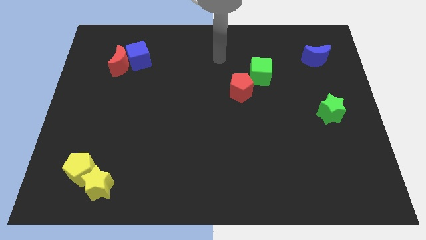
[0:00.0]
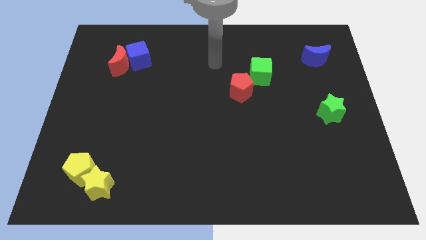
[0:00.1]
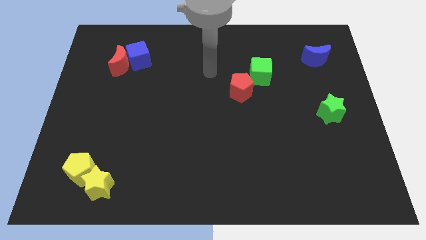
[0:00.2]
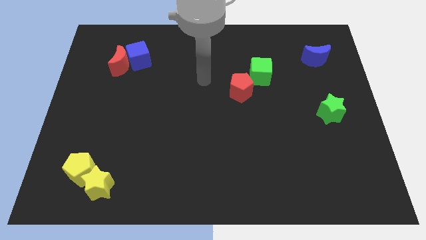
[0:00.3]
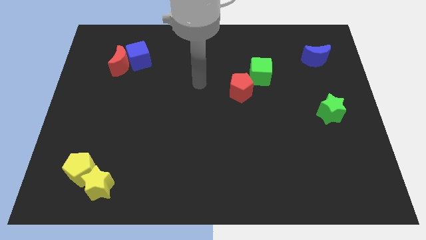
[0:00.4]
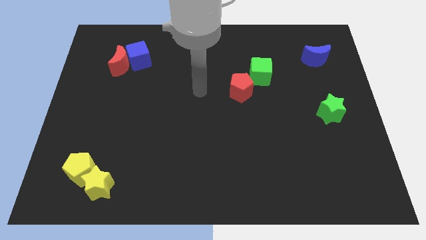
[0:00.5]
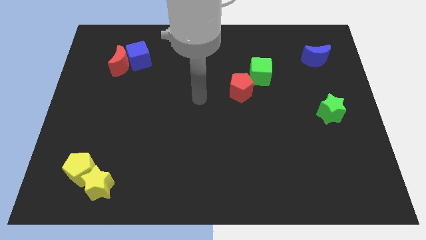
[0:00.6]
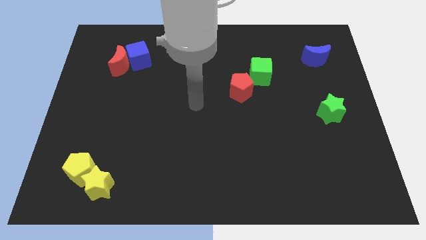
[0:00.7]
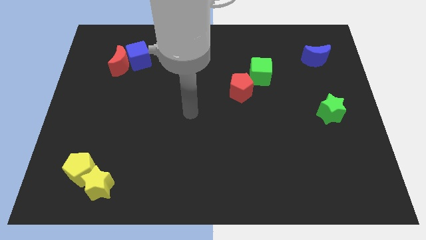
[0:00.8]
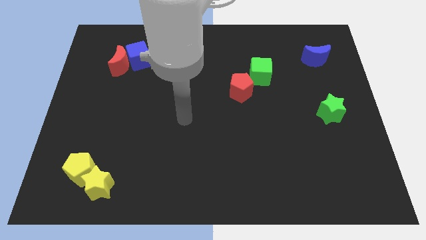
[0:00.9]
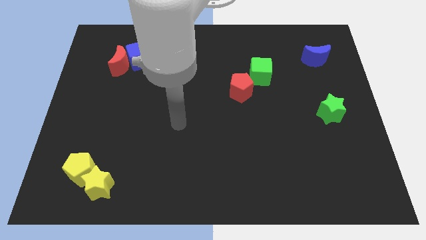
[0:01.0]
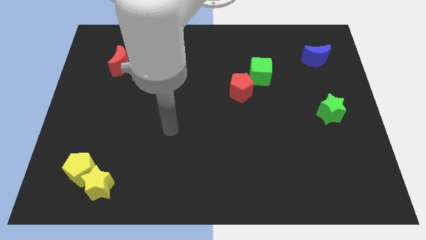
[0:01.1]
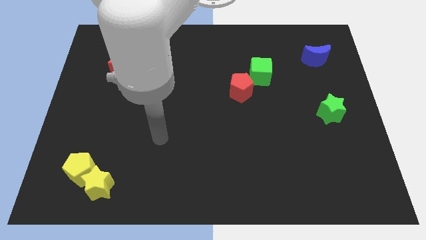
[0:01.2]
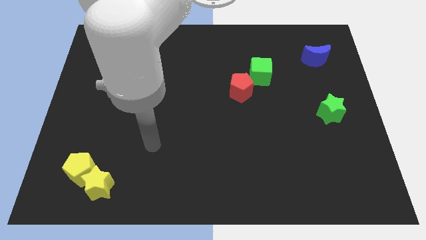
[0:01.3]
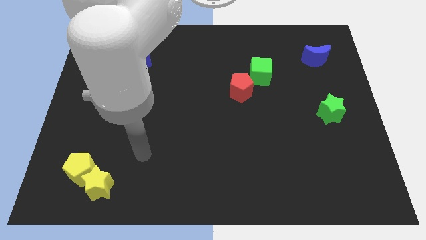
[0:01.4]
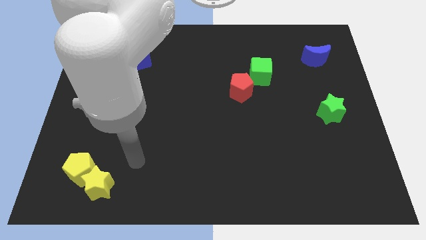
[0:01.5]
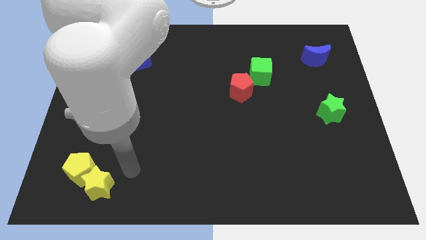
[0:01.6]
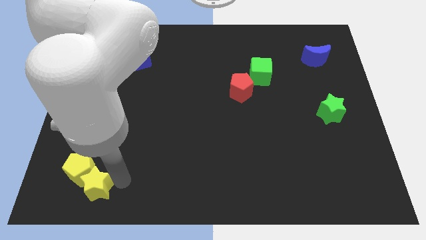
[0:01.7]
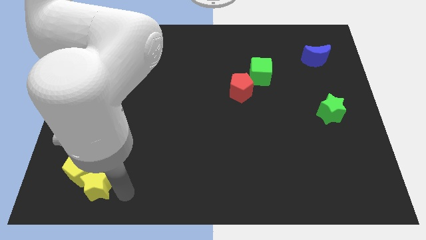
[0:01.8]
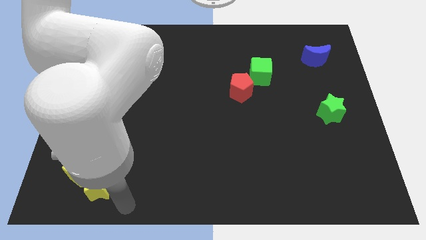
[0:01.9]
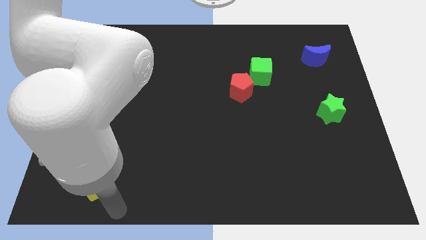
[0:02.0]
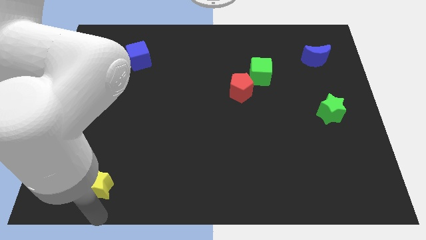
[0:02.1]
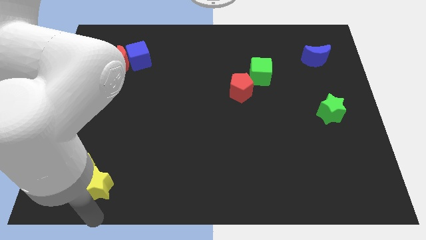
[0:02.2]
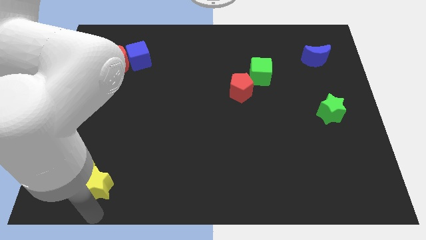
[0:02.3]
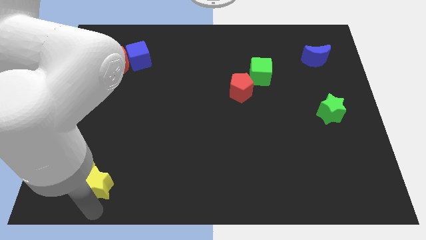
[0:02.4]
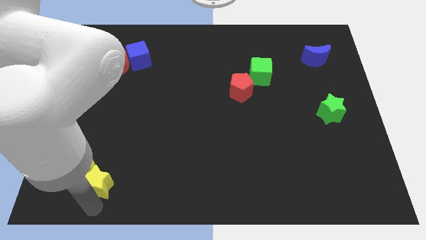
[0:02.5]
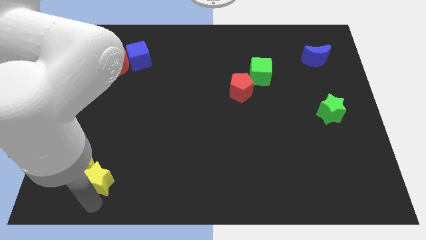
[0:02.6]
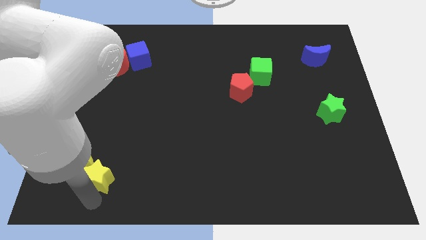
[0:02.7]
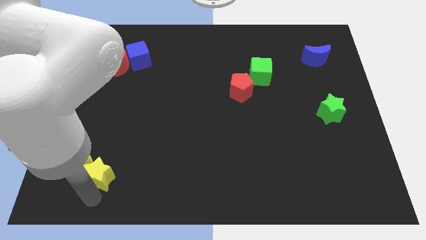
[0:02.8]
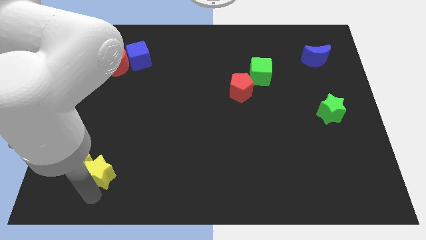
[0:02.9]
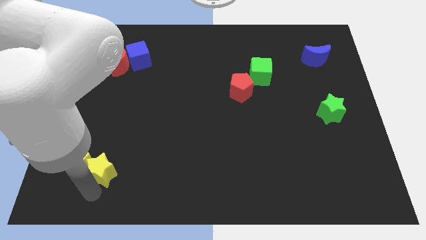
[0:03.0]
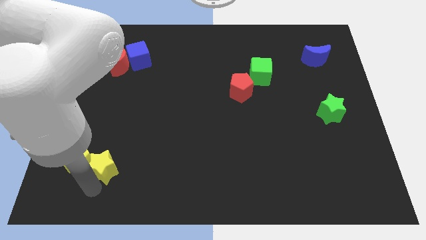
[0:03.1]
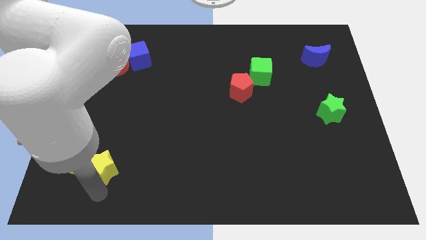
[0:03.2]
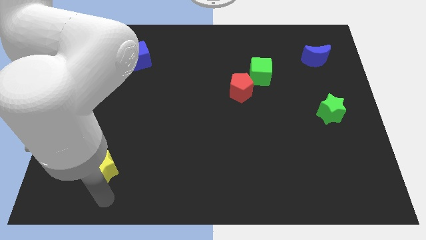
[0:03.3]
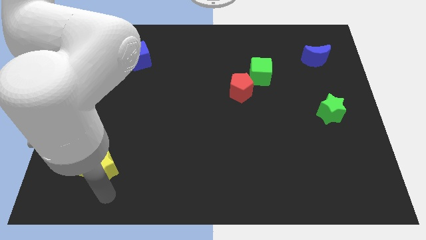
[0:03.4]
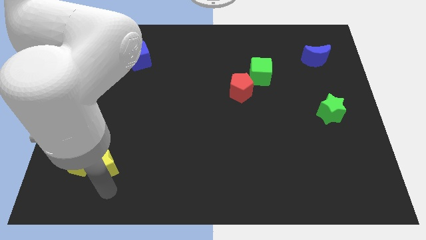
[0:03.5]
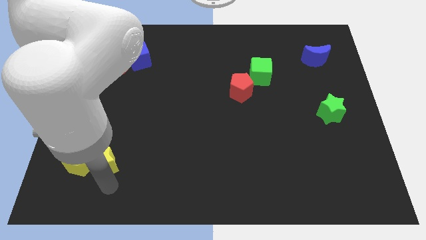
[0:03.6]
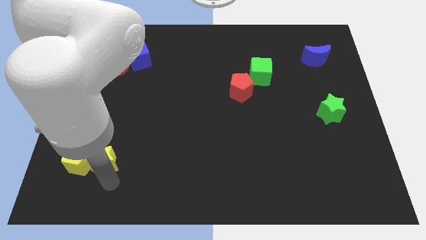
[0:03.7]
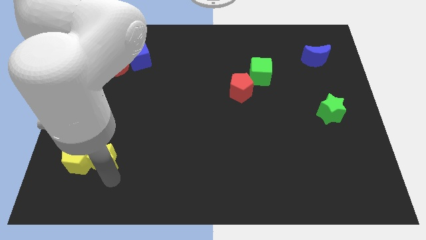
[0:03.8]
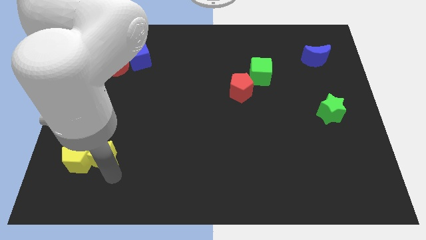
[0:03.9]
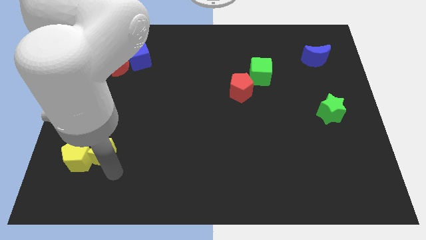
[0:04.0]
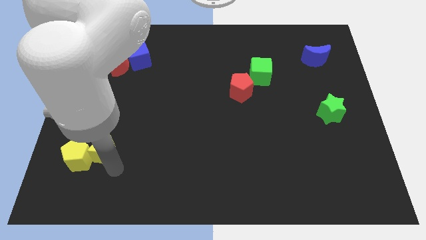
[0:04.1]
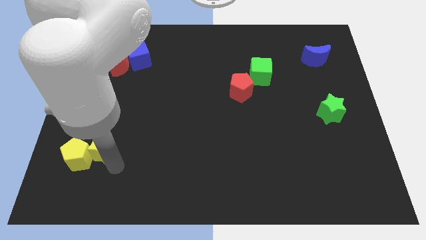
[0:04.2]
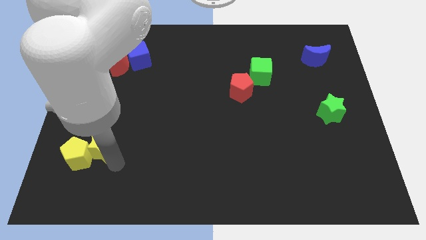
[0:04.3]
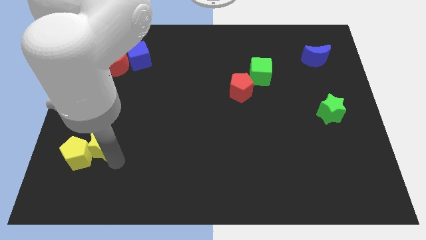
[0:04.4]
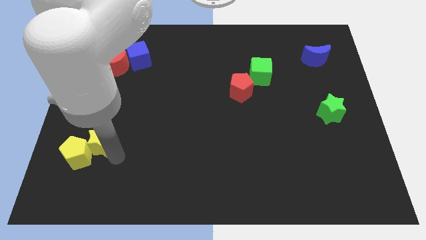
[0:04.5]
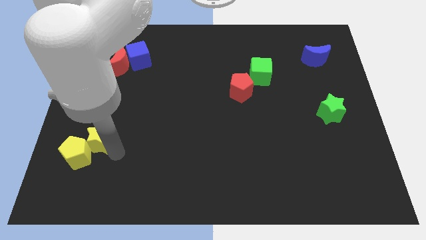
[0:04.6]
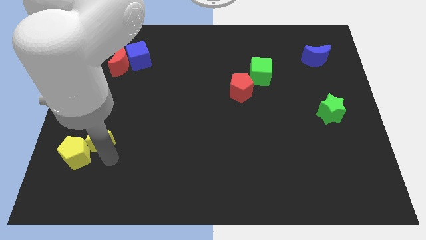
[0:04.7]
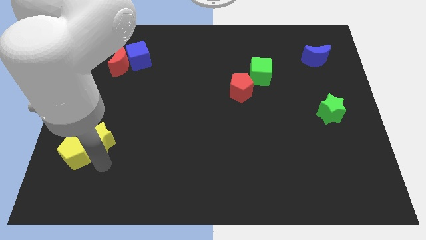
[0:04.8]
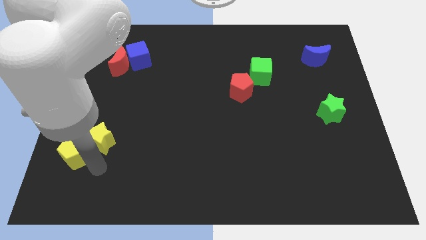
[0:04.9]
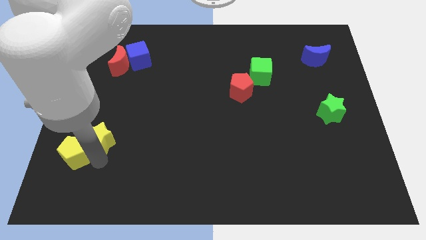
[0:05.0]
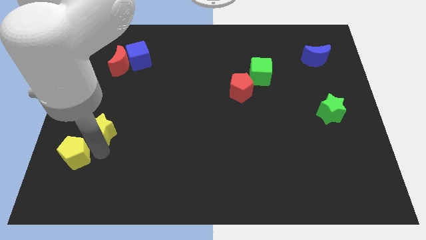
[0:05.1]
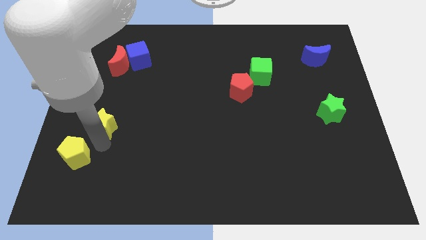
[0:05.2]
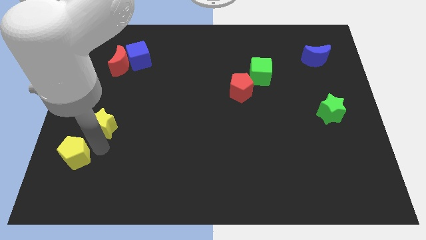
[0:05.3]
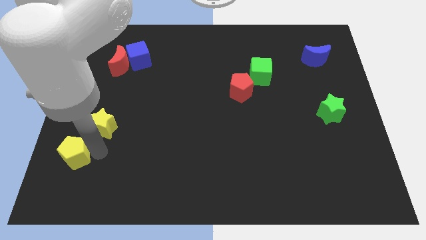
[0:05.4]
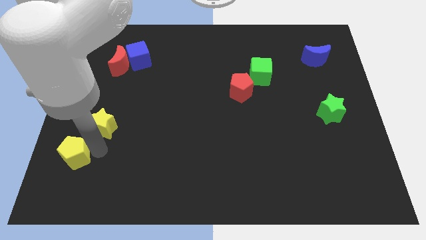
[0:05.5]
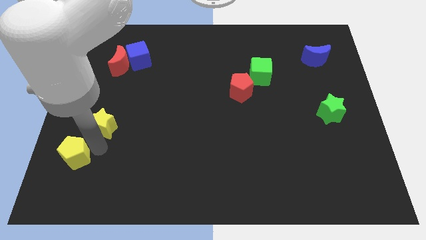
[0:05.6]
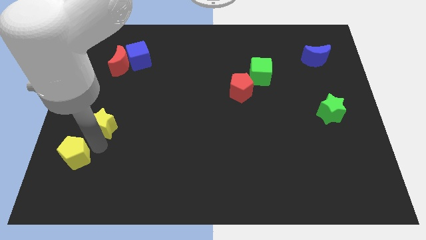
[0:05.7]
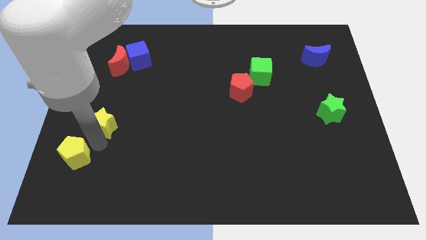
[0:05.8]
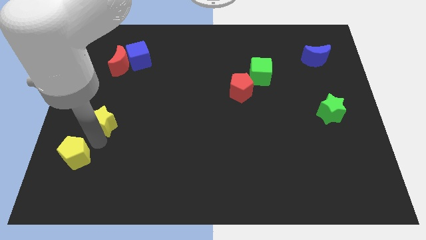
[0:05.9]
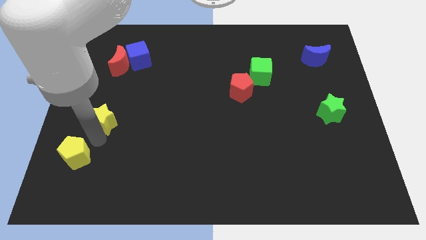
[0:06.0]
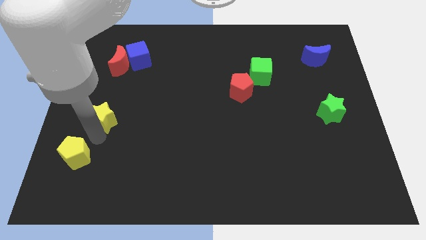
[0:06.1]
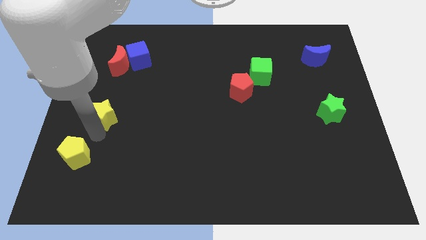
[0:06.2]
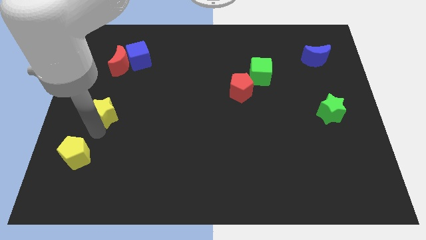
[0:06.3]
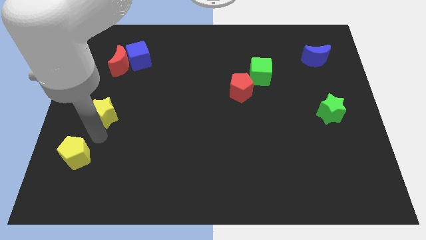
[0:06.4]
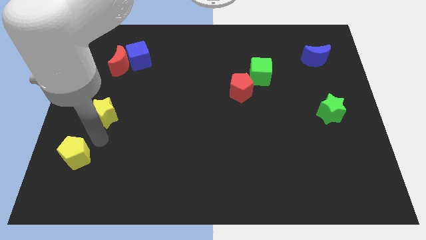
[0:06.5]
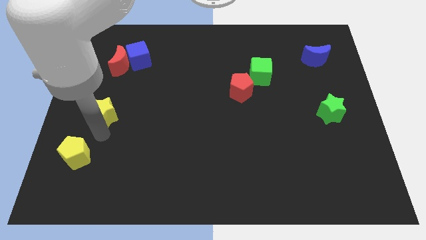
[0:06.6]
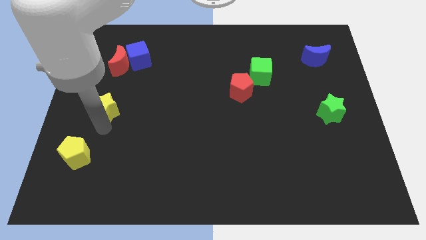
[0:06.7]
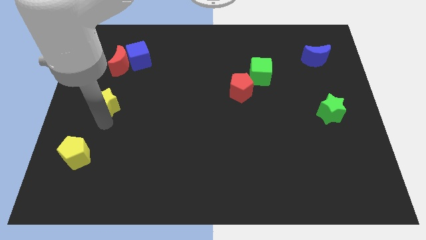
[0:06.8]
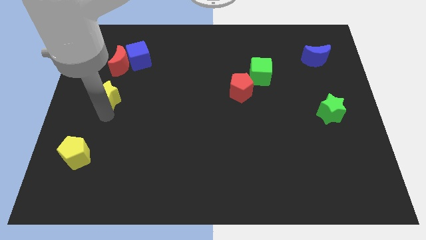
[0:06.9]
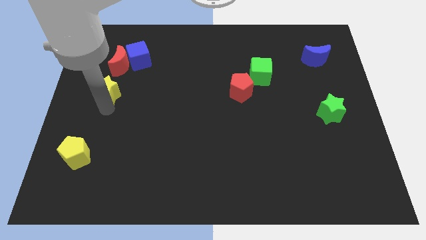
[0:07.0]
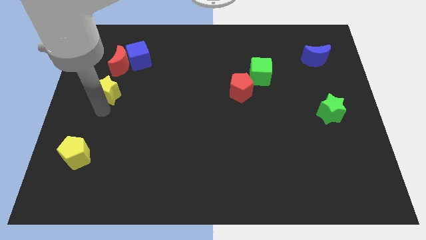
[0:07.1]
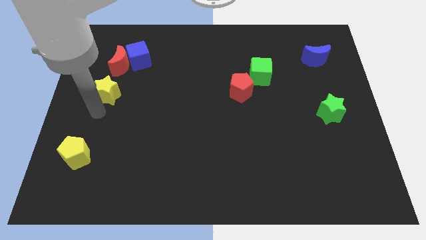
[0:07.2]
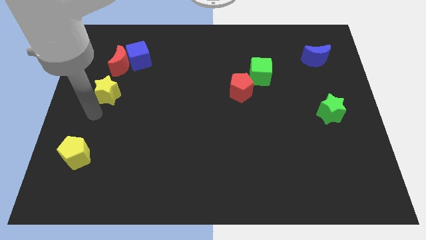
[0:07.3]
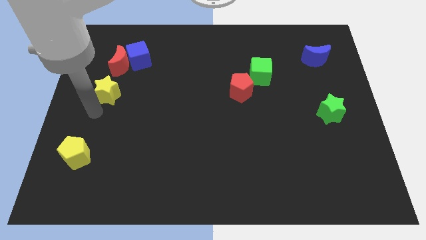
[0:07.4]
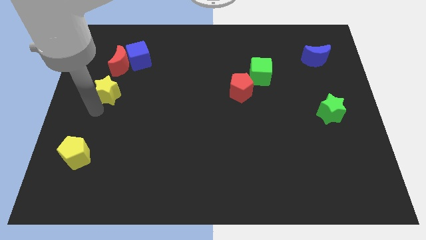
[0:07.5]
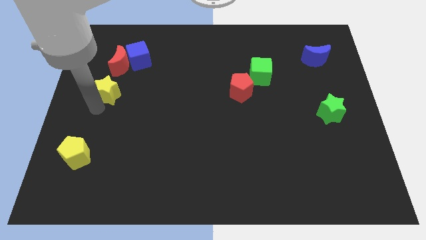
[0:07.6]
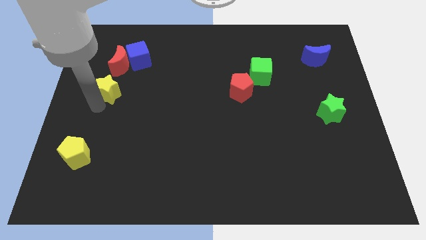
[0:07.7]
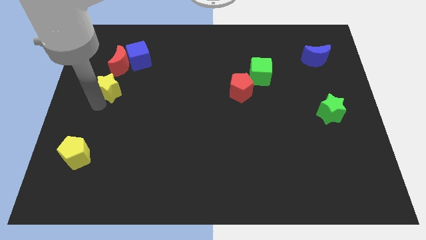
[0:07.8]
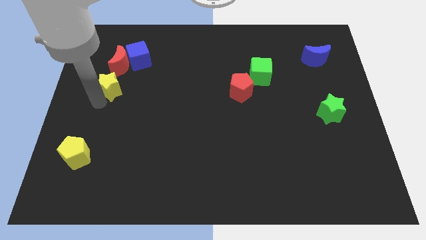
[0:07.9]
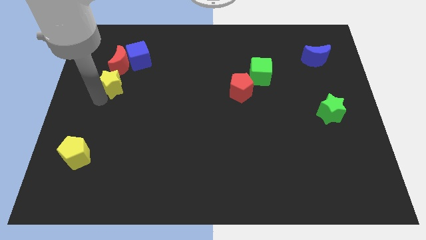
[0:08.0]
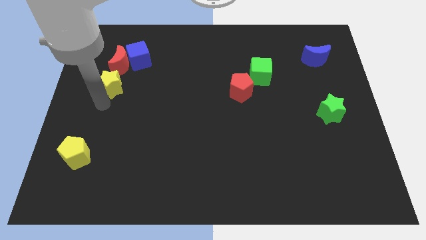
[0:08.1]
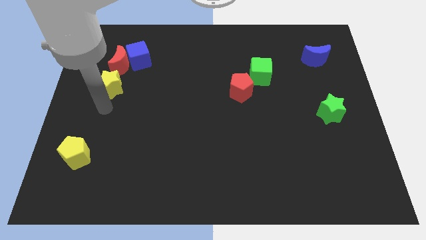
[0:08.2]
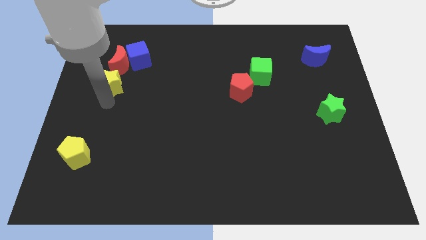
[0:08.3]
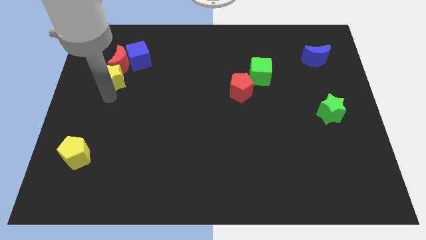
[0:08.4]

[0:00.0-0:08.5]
put the yellow star towards the red moon

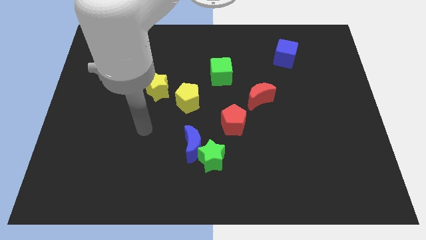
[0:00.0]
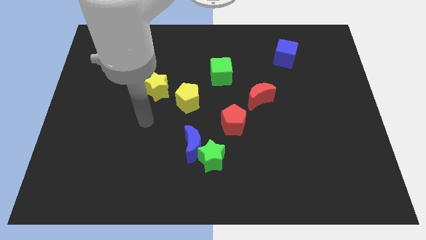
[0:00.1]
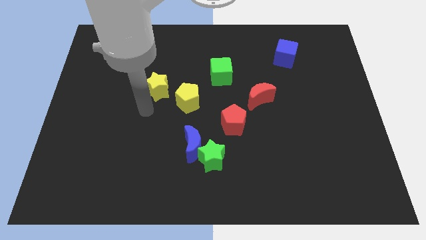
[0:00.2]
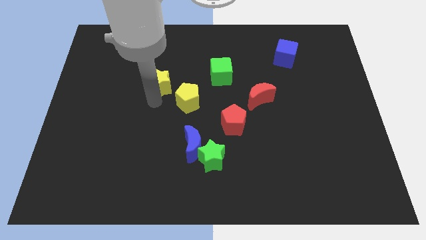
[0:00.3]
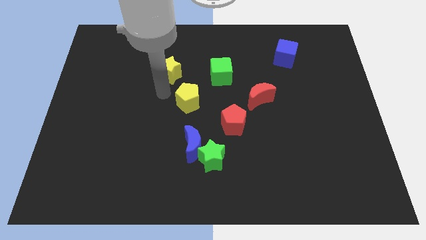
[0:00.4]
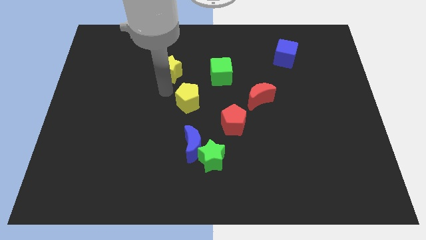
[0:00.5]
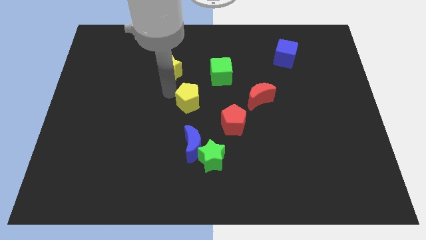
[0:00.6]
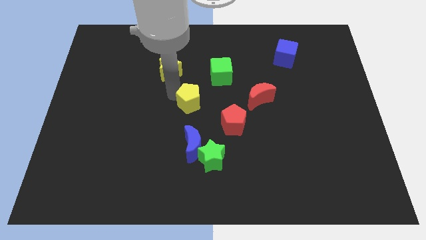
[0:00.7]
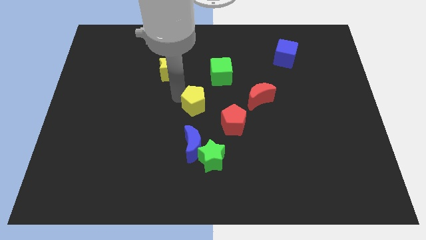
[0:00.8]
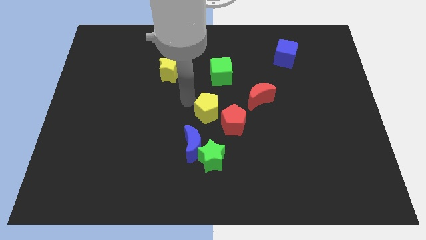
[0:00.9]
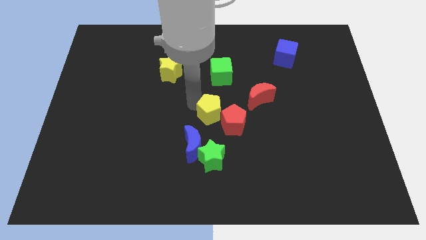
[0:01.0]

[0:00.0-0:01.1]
push the yellow pentagon to the red pentagon
